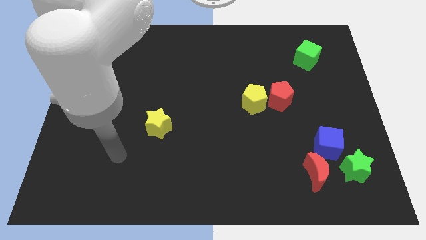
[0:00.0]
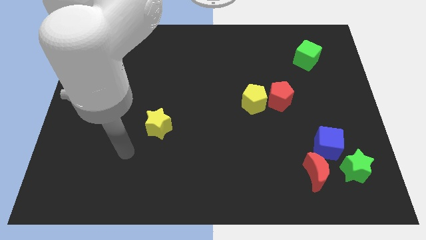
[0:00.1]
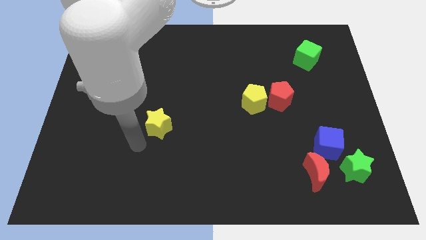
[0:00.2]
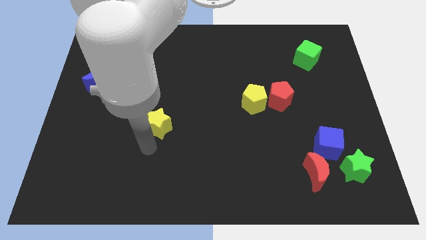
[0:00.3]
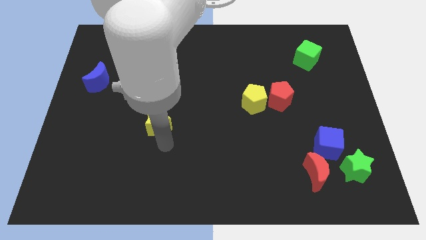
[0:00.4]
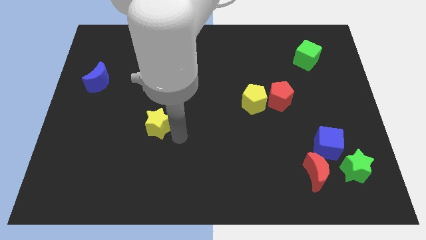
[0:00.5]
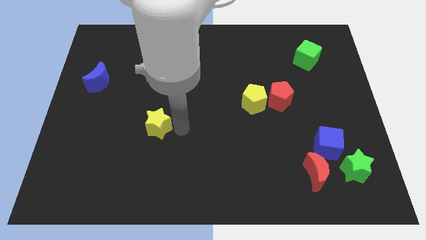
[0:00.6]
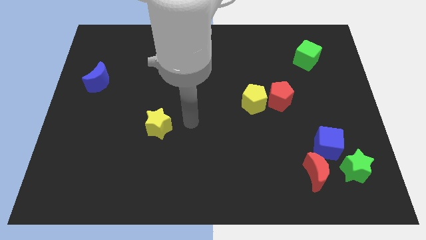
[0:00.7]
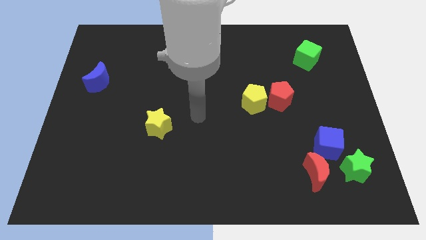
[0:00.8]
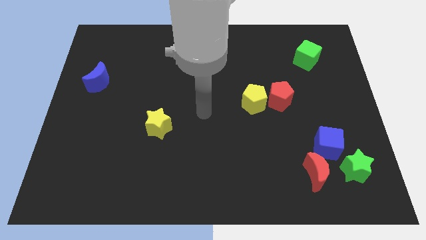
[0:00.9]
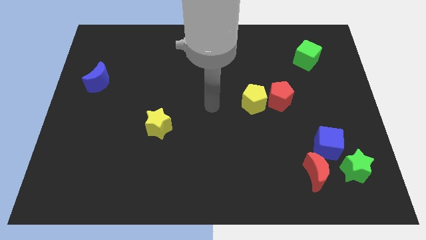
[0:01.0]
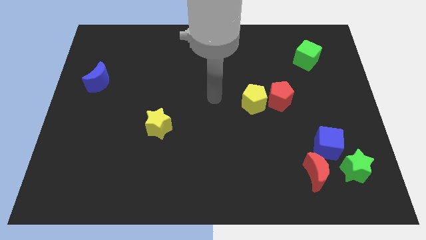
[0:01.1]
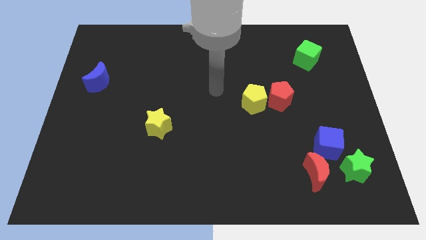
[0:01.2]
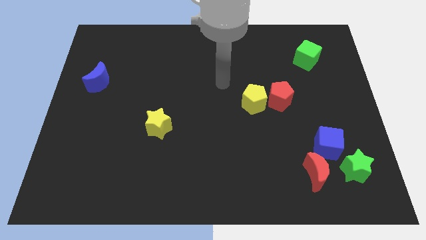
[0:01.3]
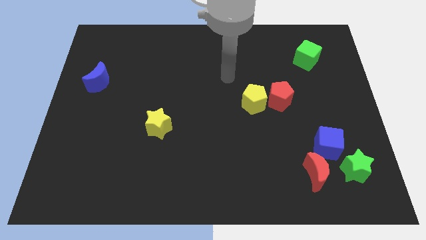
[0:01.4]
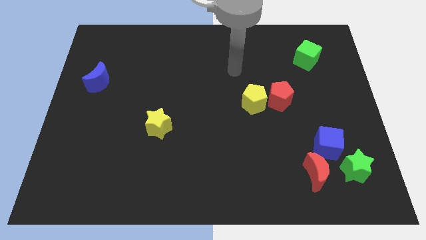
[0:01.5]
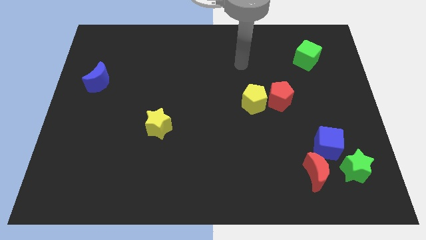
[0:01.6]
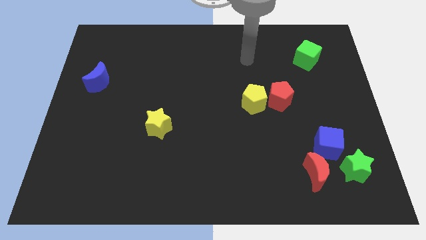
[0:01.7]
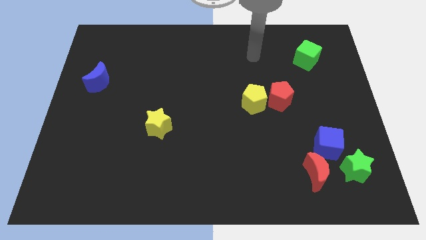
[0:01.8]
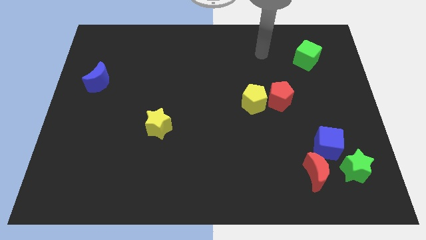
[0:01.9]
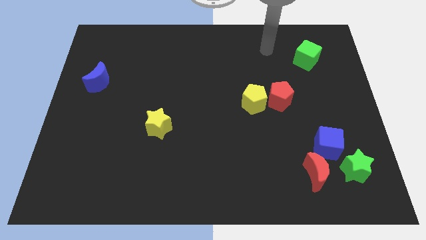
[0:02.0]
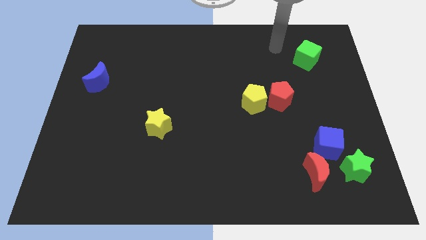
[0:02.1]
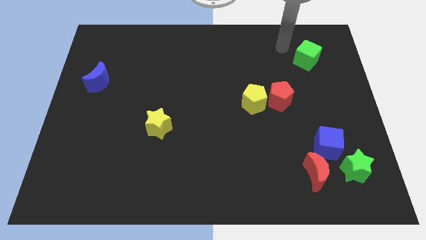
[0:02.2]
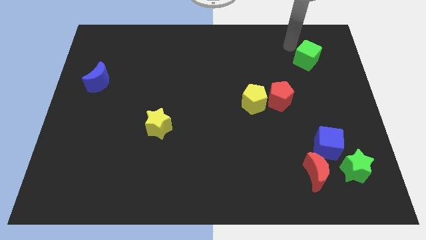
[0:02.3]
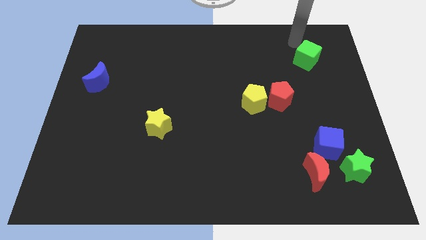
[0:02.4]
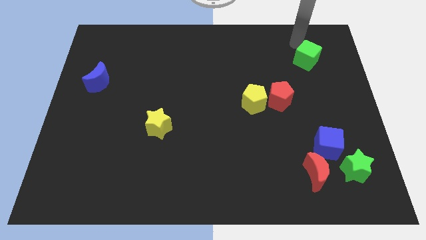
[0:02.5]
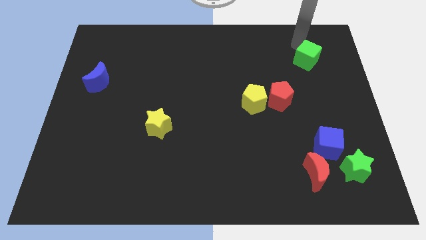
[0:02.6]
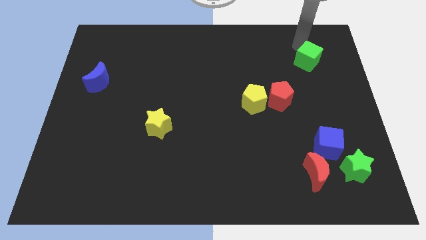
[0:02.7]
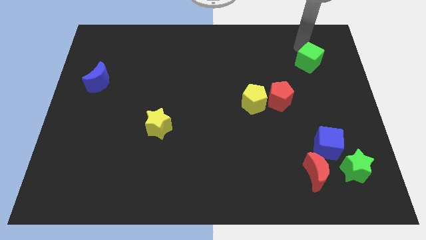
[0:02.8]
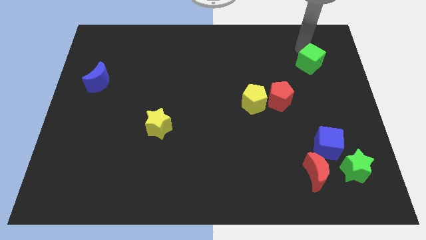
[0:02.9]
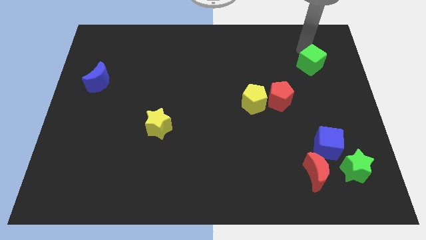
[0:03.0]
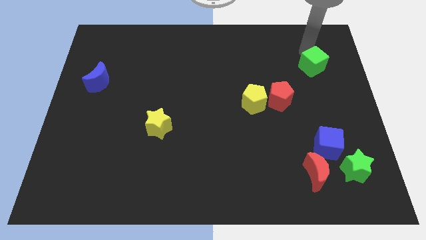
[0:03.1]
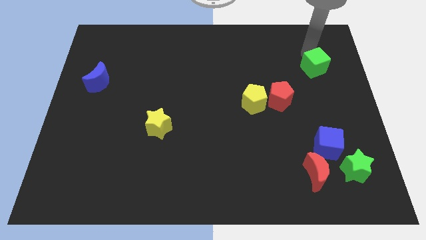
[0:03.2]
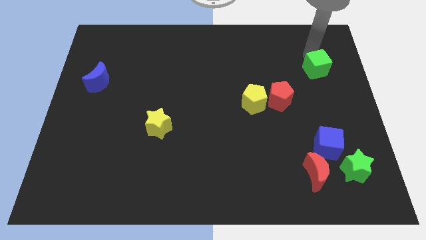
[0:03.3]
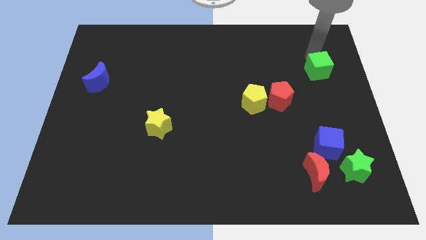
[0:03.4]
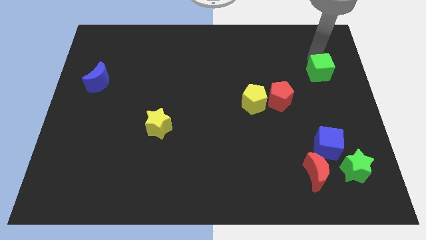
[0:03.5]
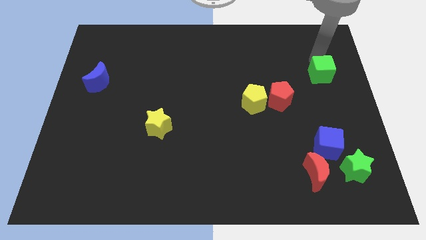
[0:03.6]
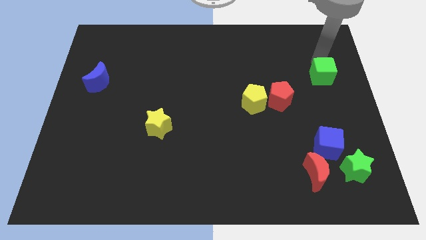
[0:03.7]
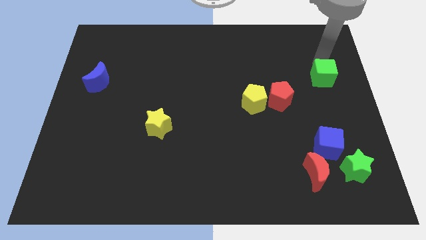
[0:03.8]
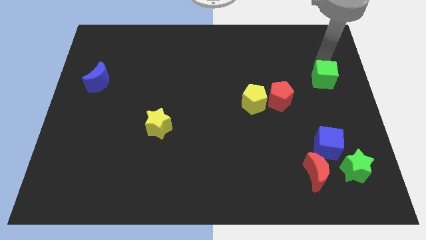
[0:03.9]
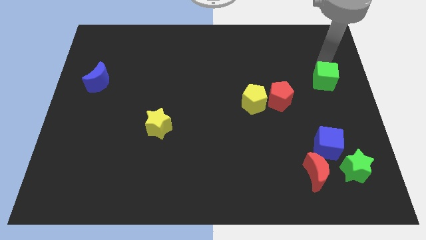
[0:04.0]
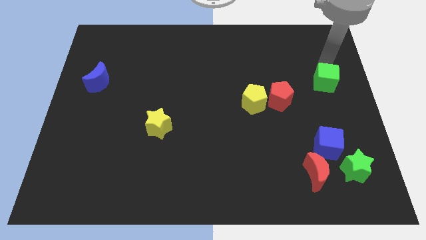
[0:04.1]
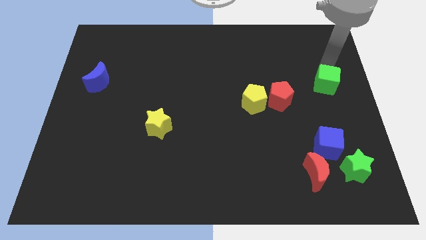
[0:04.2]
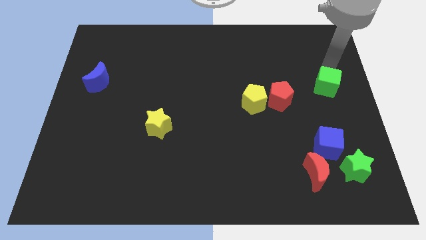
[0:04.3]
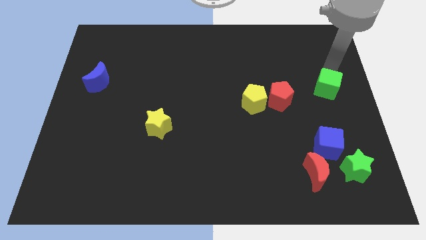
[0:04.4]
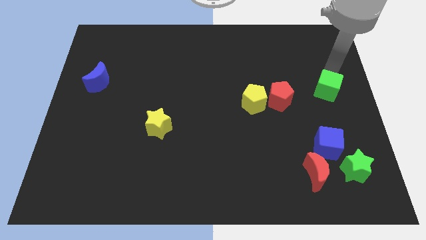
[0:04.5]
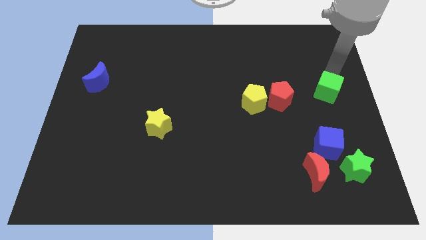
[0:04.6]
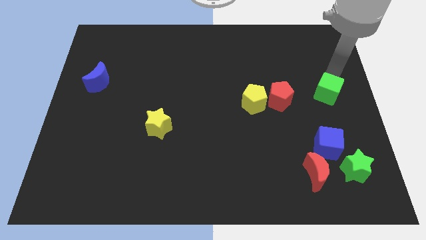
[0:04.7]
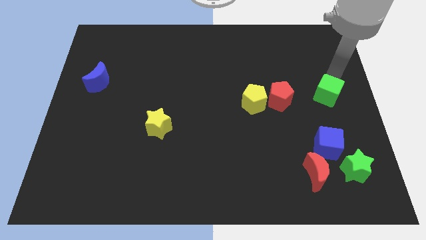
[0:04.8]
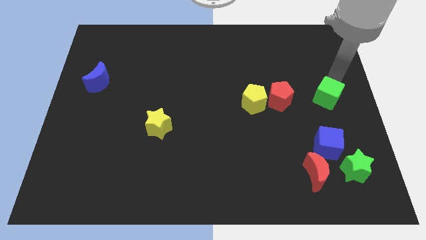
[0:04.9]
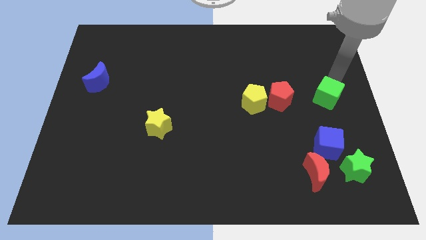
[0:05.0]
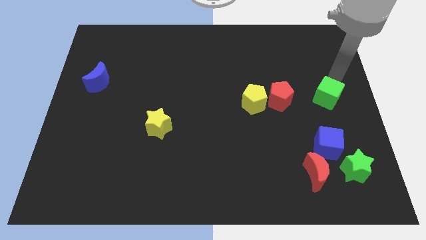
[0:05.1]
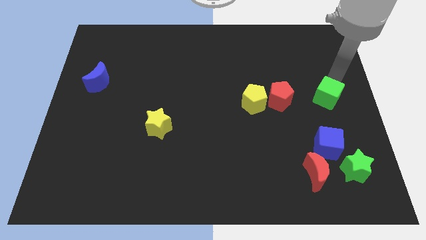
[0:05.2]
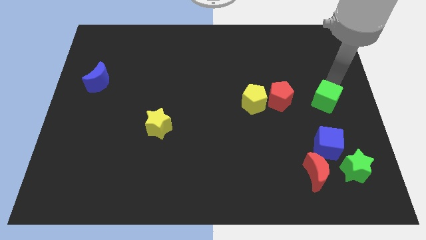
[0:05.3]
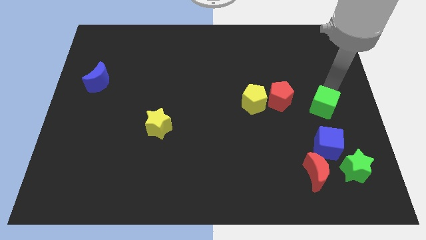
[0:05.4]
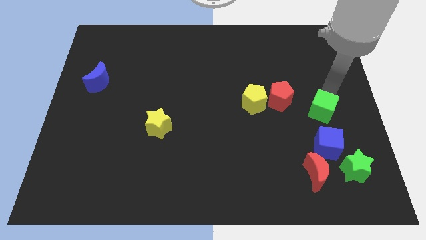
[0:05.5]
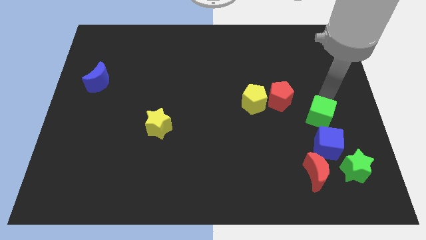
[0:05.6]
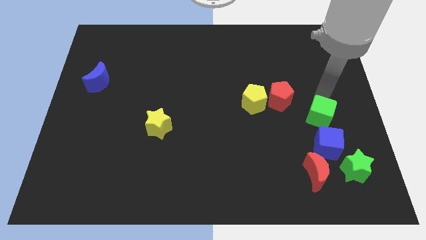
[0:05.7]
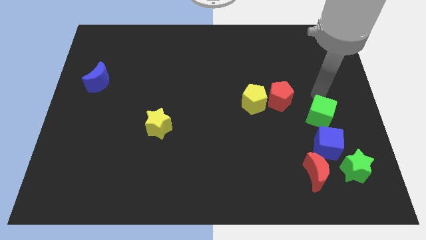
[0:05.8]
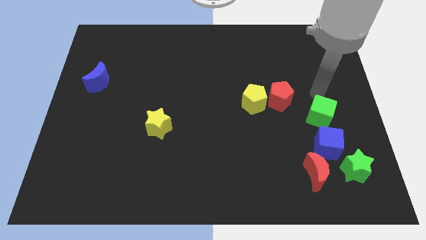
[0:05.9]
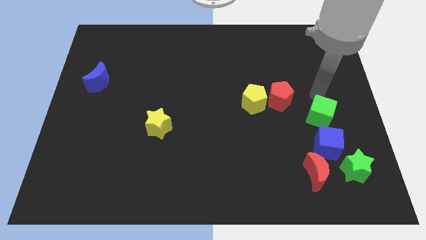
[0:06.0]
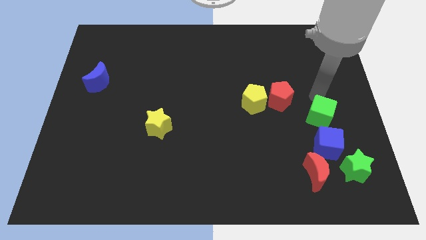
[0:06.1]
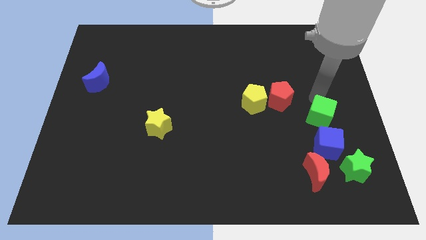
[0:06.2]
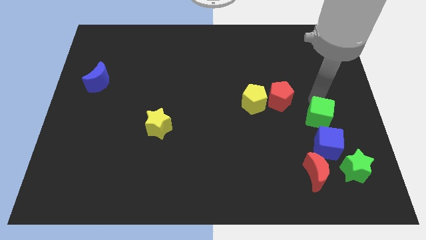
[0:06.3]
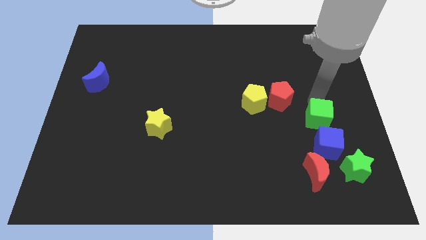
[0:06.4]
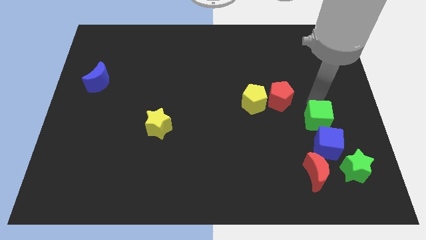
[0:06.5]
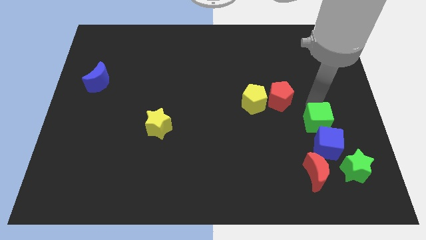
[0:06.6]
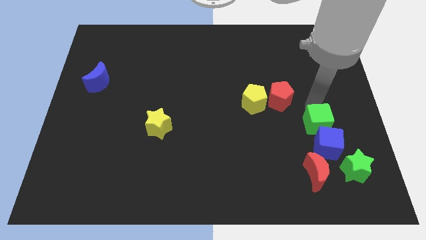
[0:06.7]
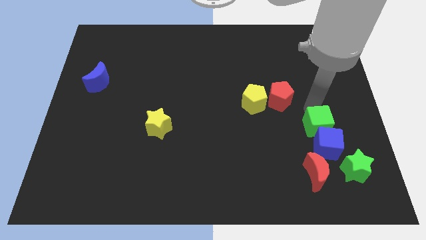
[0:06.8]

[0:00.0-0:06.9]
slide the green cube towards the blue cube
